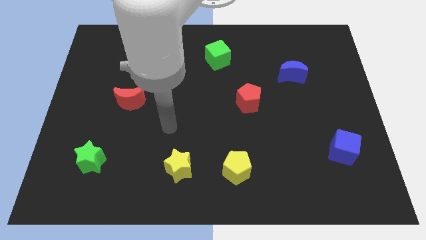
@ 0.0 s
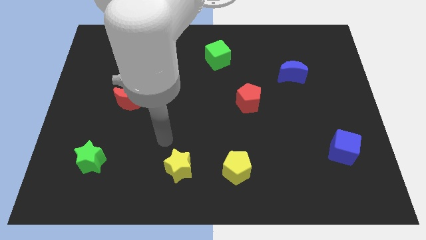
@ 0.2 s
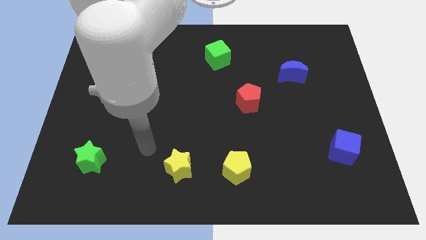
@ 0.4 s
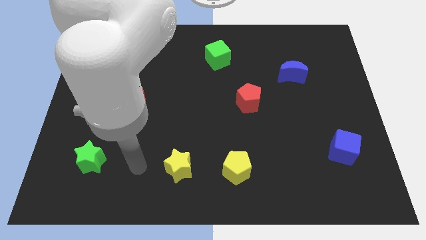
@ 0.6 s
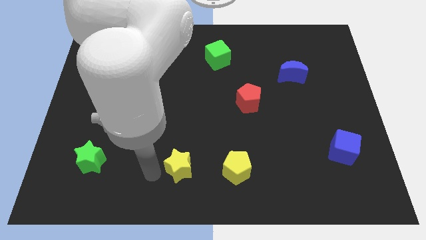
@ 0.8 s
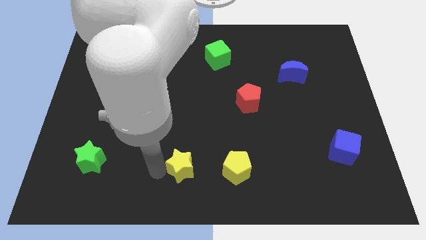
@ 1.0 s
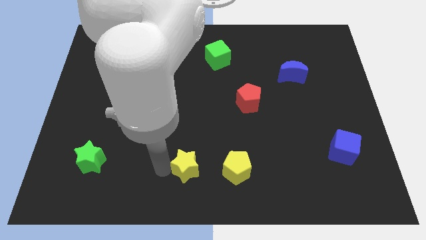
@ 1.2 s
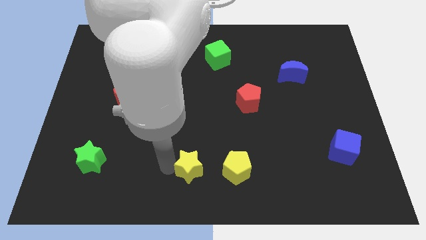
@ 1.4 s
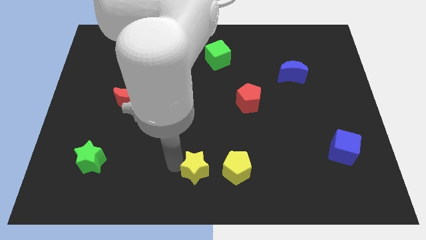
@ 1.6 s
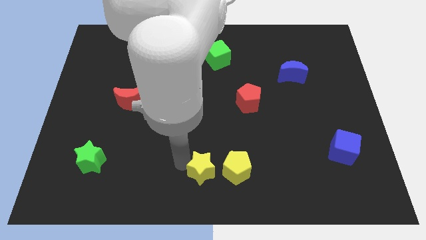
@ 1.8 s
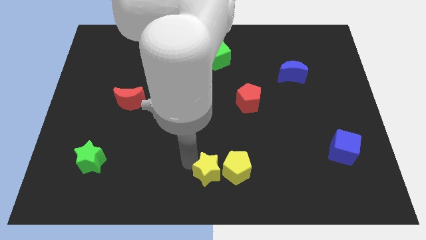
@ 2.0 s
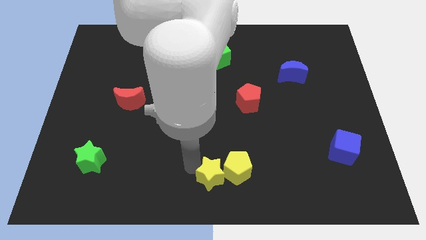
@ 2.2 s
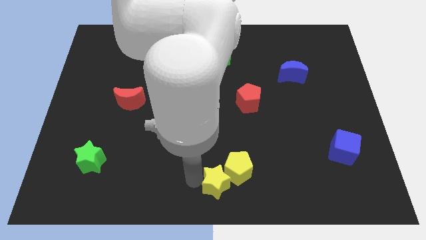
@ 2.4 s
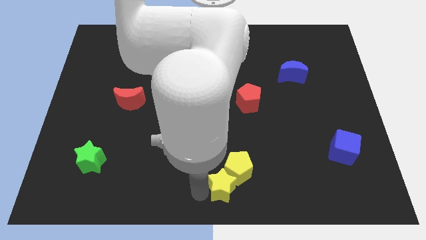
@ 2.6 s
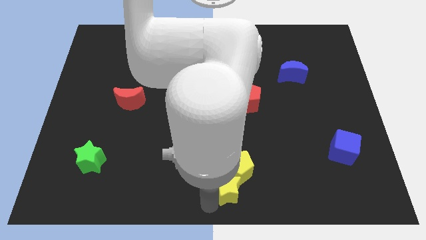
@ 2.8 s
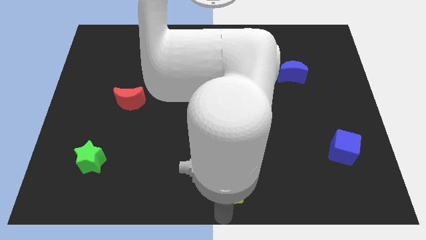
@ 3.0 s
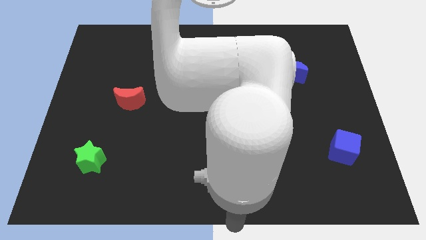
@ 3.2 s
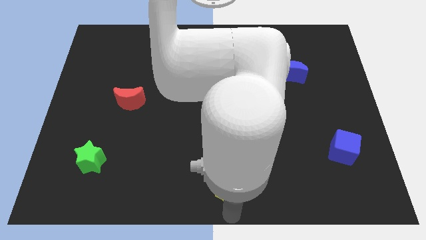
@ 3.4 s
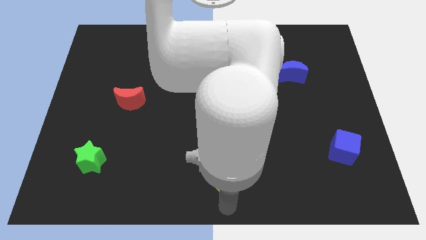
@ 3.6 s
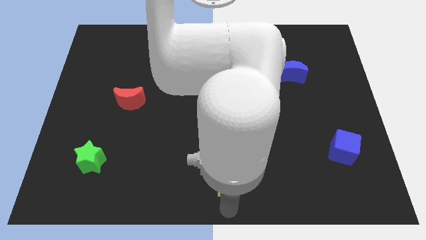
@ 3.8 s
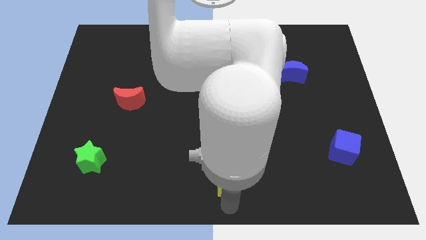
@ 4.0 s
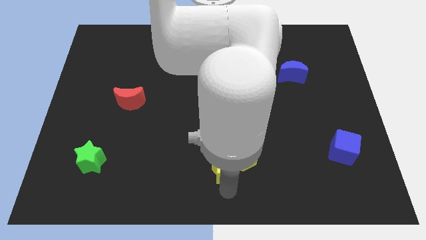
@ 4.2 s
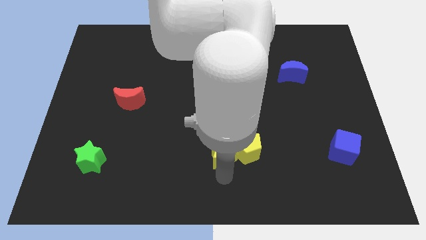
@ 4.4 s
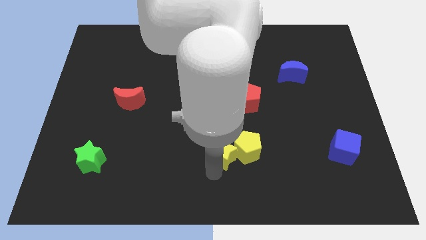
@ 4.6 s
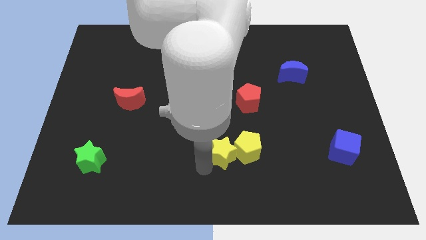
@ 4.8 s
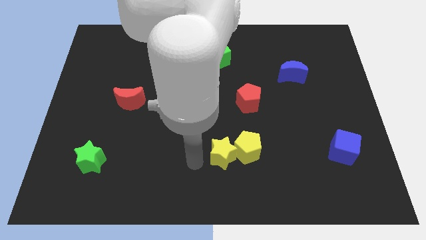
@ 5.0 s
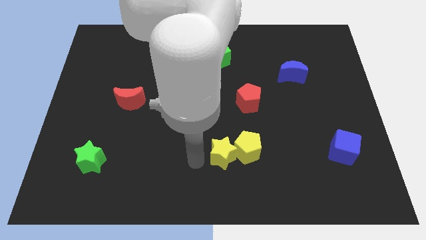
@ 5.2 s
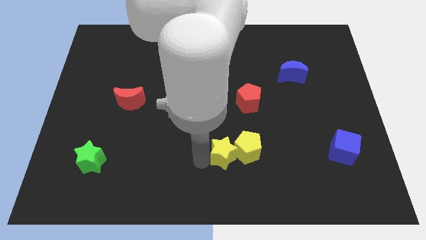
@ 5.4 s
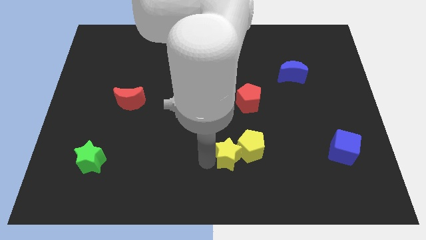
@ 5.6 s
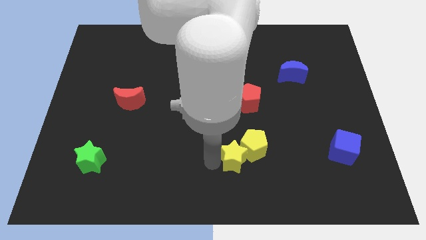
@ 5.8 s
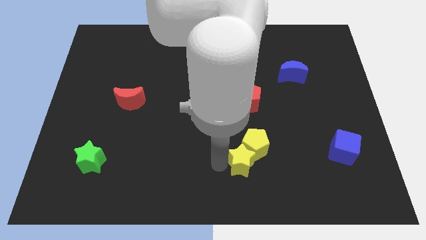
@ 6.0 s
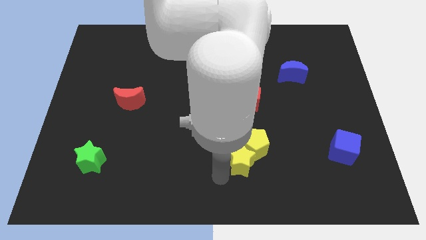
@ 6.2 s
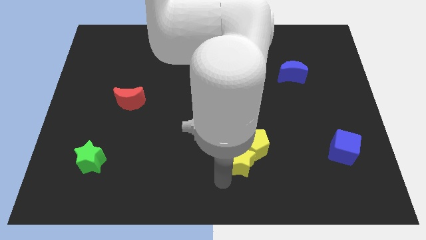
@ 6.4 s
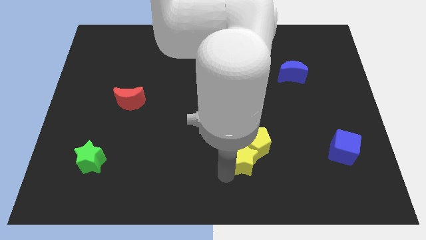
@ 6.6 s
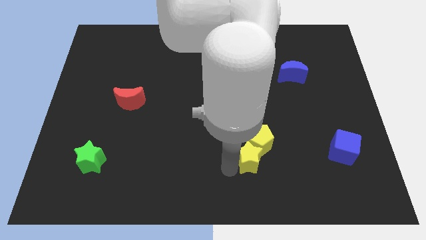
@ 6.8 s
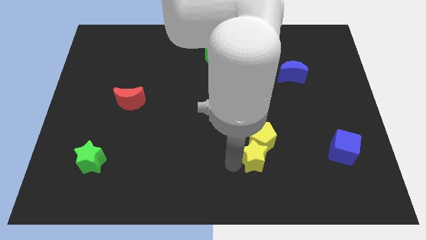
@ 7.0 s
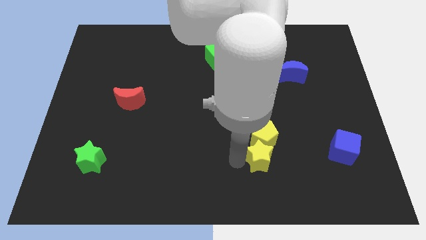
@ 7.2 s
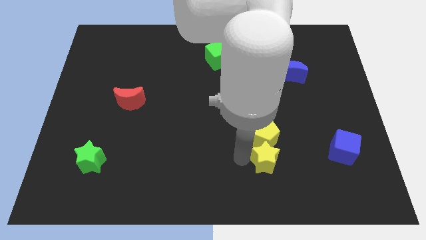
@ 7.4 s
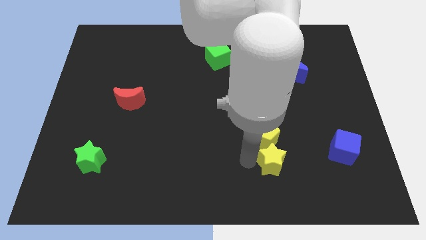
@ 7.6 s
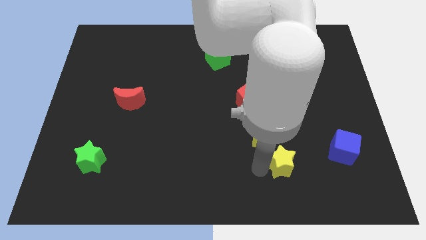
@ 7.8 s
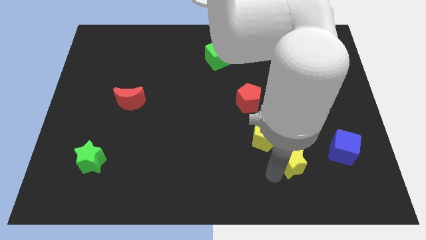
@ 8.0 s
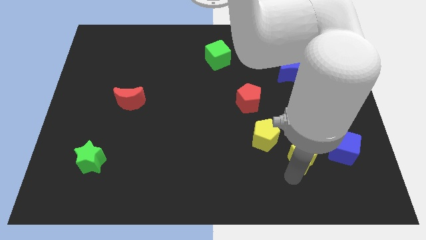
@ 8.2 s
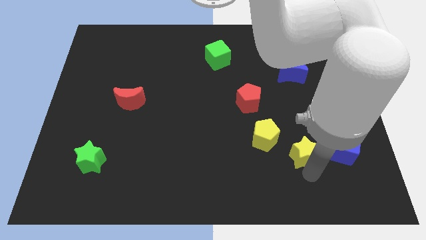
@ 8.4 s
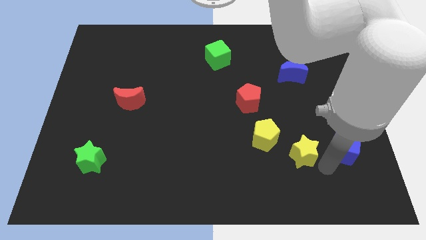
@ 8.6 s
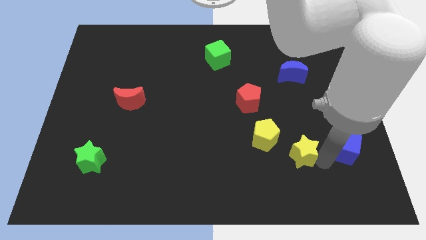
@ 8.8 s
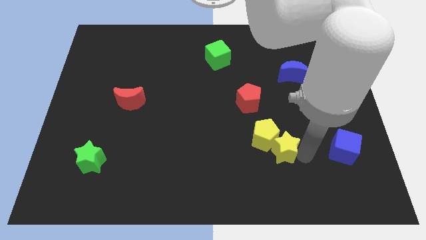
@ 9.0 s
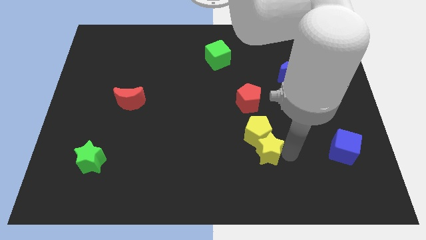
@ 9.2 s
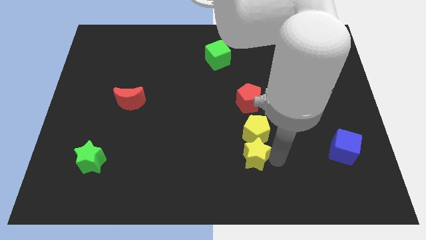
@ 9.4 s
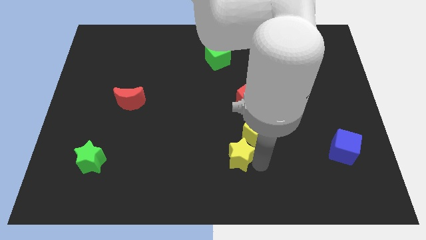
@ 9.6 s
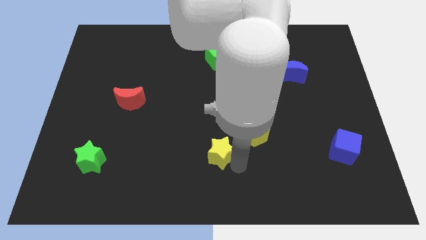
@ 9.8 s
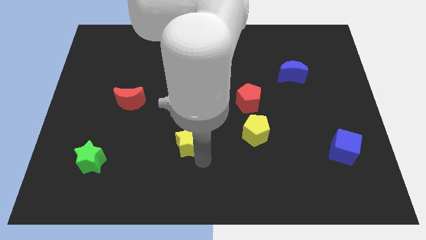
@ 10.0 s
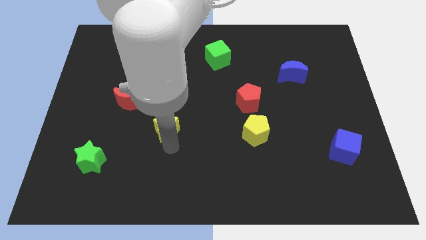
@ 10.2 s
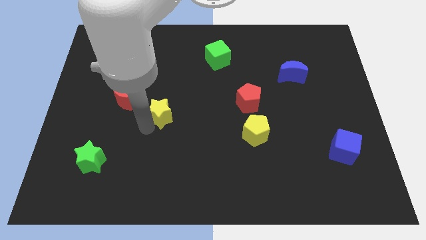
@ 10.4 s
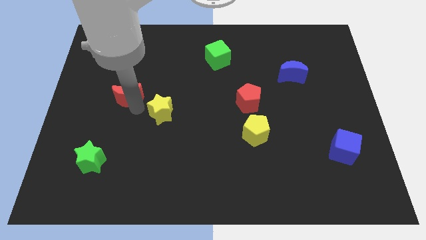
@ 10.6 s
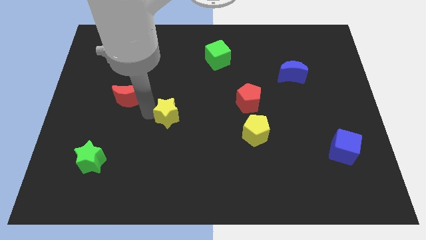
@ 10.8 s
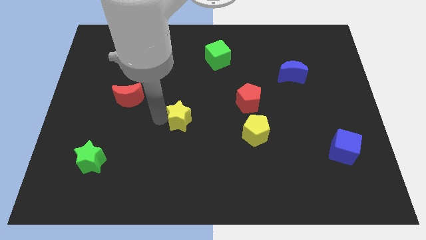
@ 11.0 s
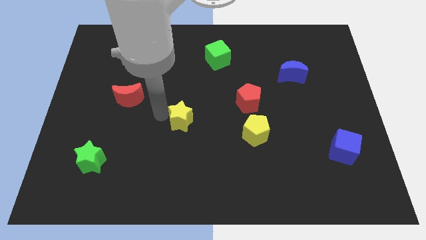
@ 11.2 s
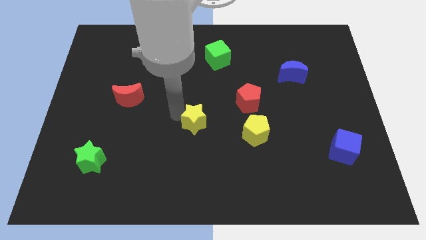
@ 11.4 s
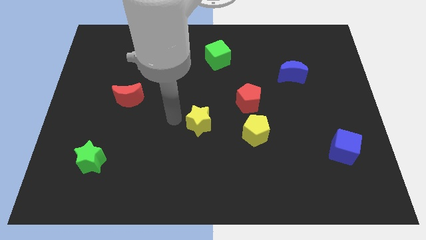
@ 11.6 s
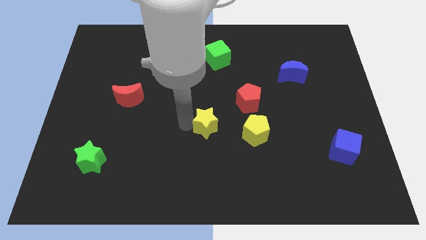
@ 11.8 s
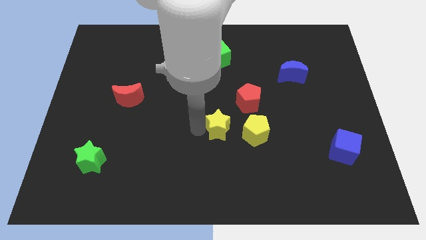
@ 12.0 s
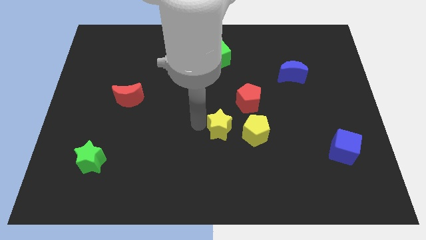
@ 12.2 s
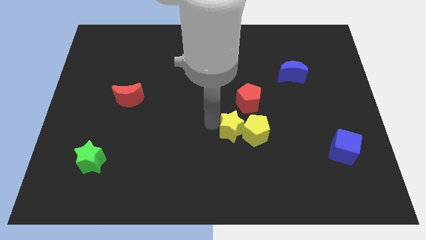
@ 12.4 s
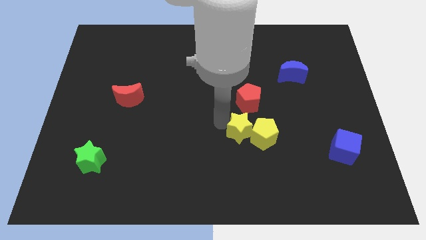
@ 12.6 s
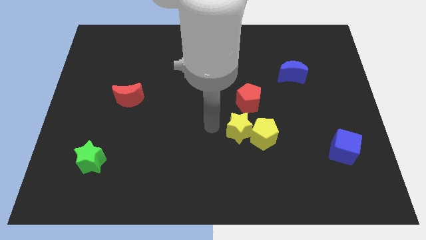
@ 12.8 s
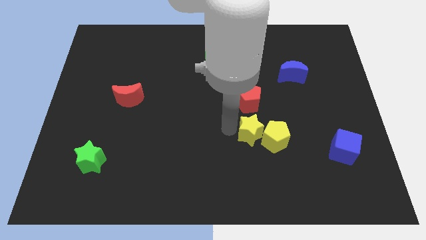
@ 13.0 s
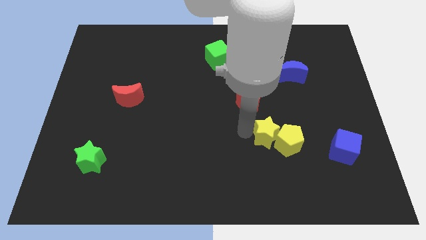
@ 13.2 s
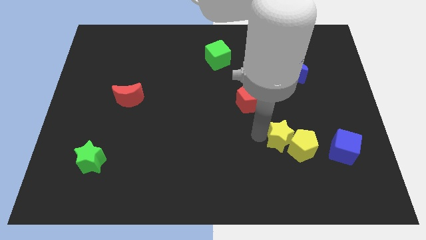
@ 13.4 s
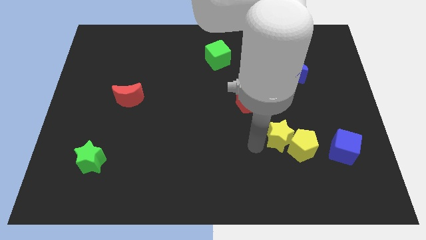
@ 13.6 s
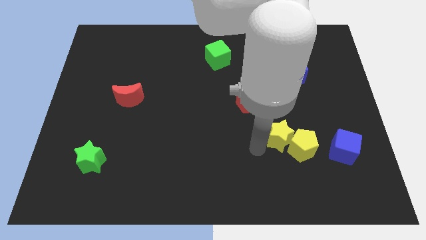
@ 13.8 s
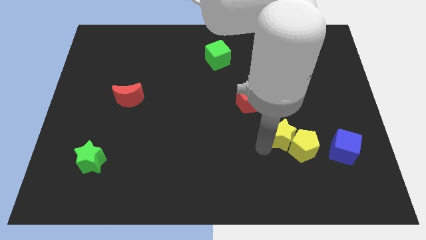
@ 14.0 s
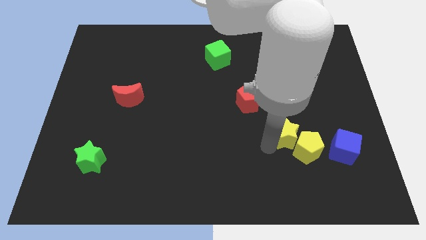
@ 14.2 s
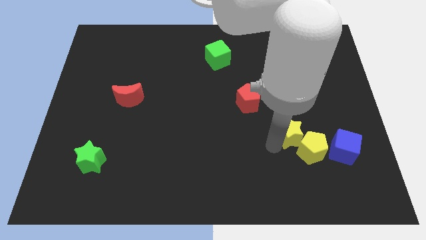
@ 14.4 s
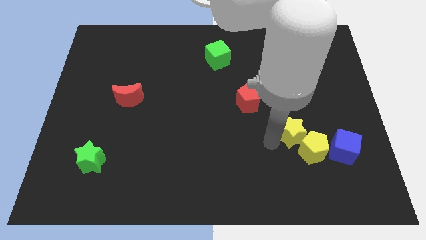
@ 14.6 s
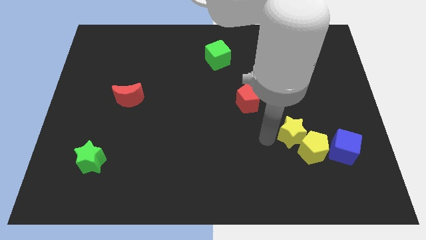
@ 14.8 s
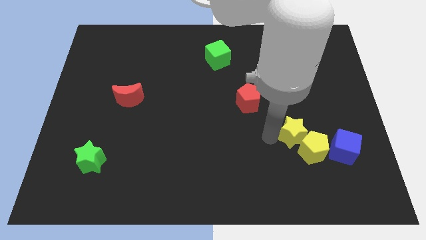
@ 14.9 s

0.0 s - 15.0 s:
move the yellow star diagonally up and to the left of the blue cube
